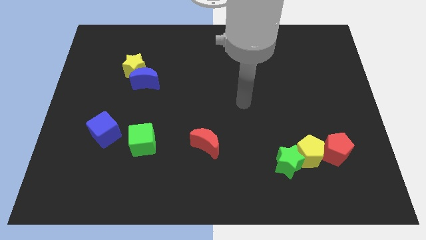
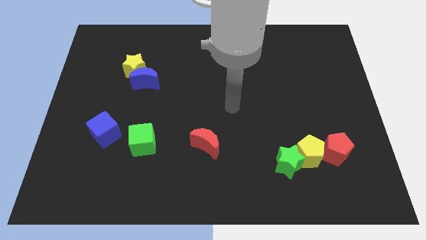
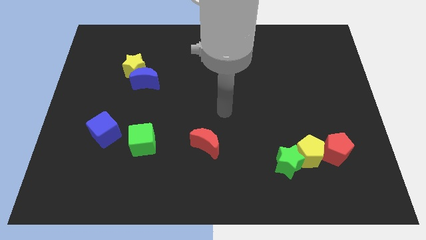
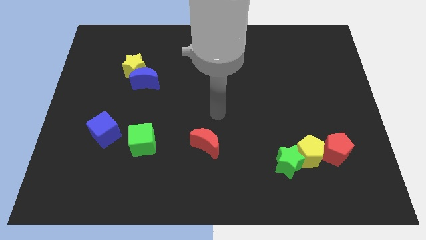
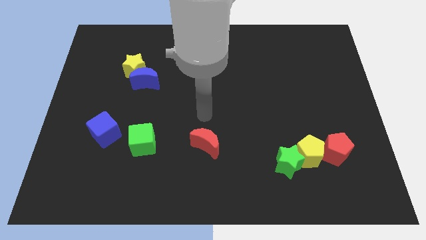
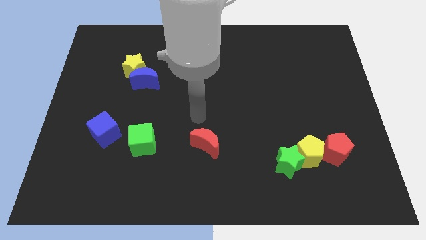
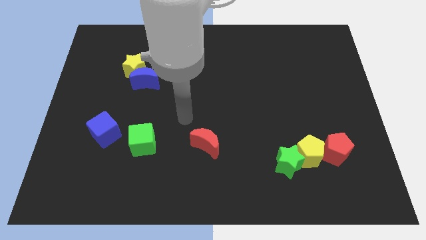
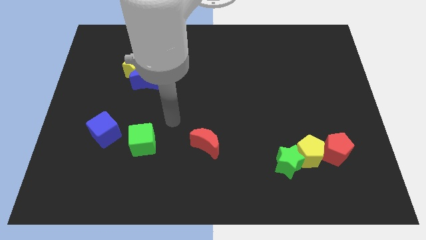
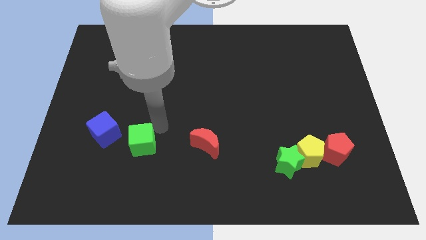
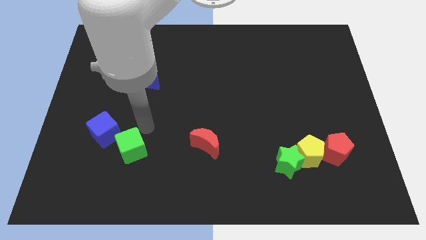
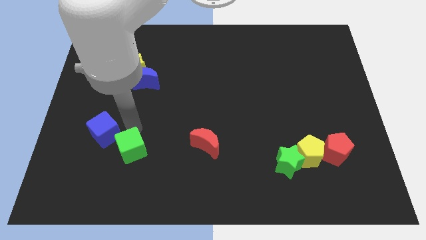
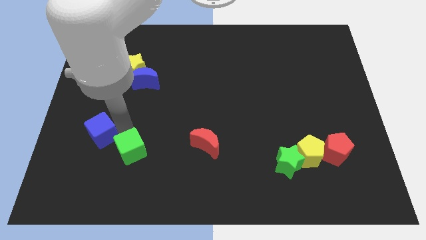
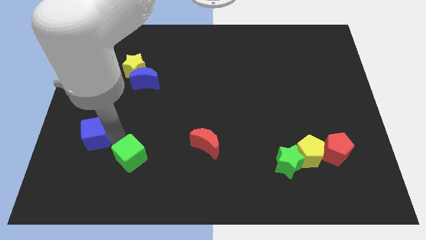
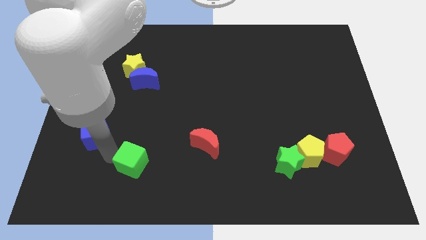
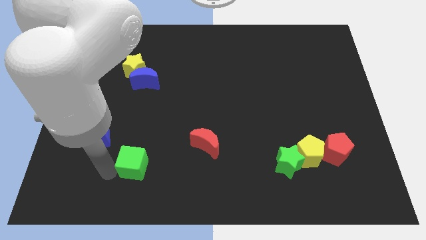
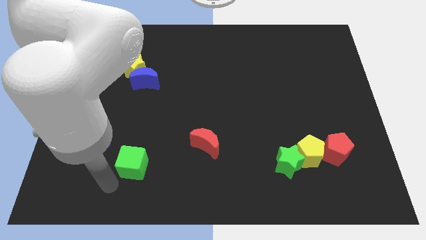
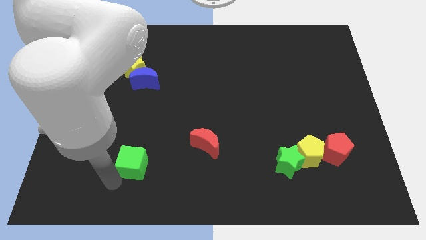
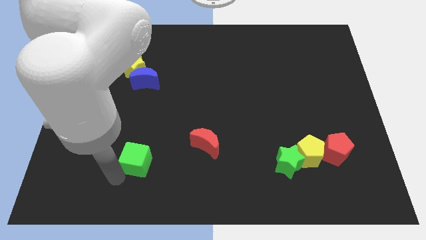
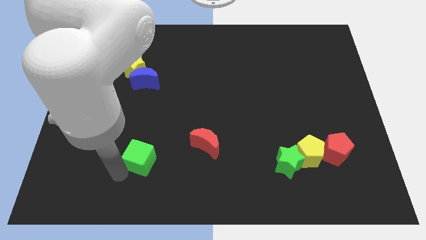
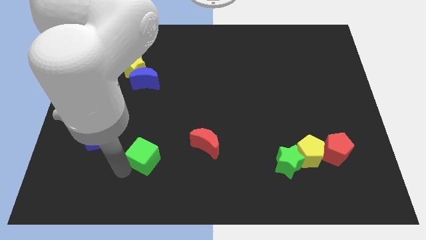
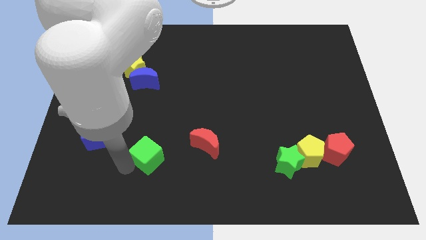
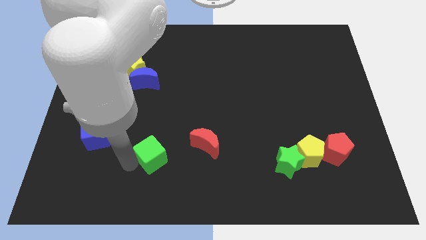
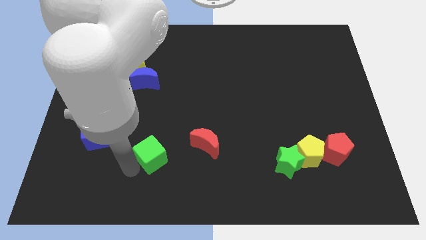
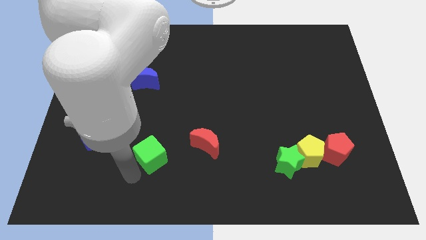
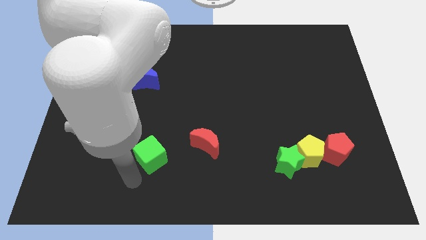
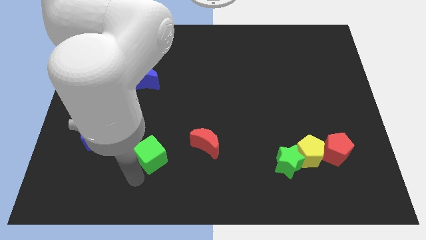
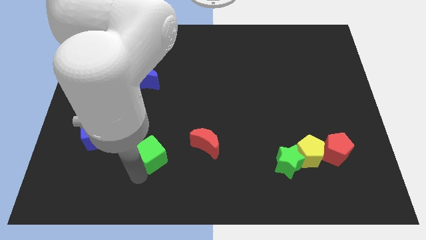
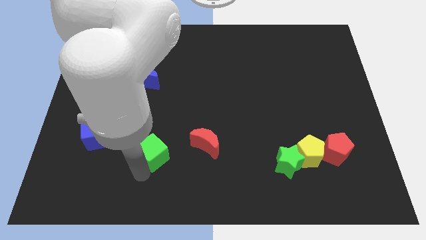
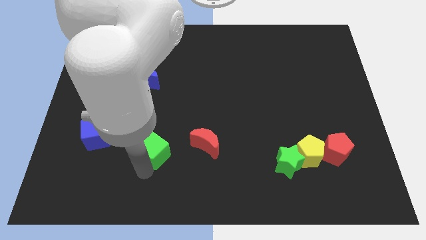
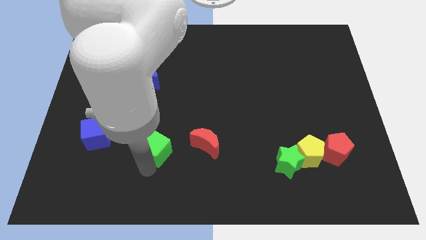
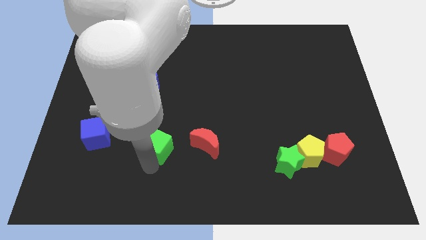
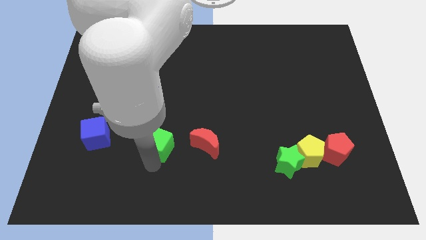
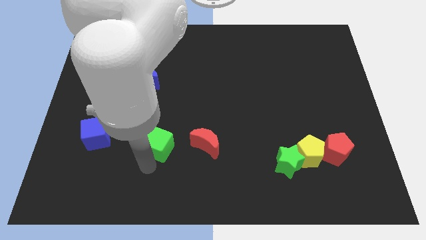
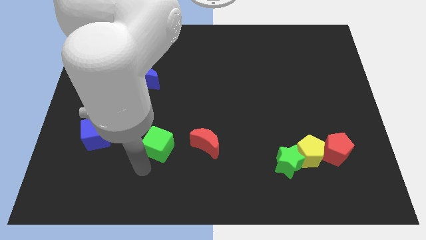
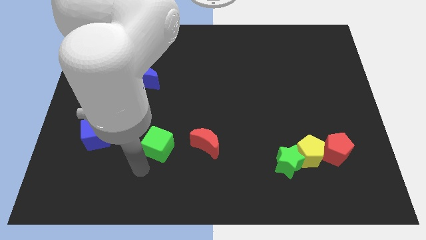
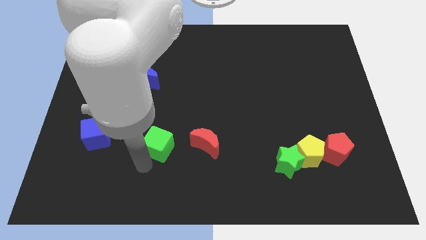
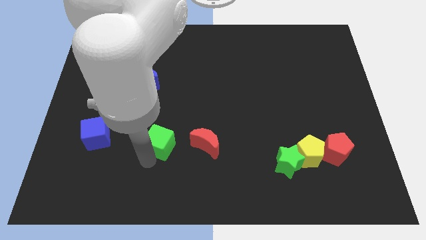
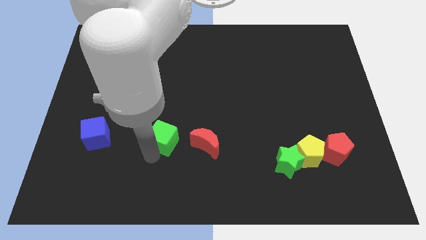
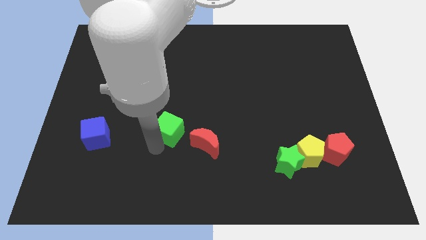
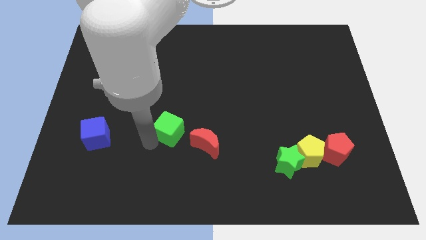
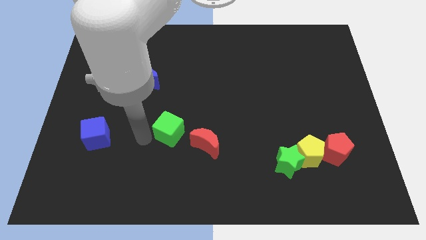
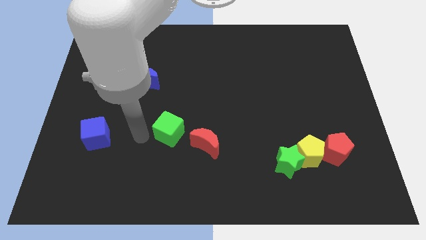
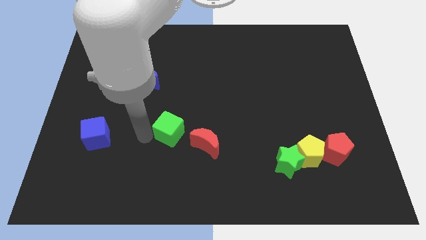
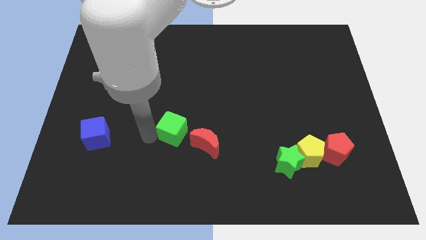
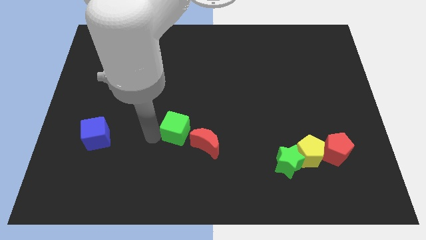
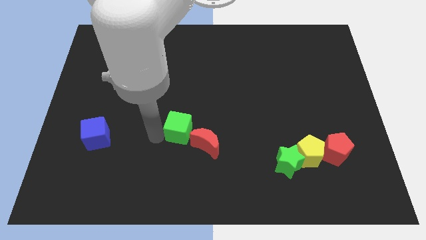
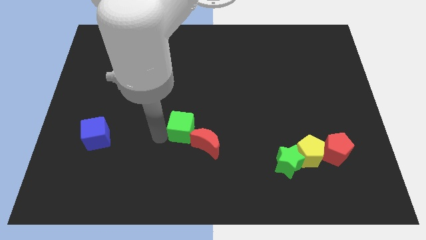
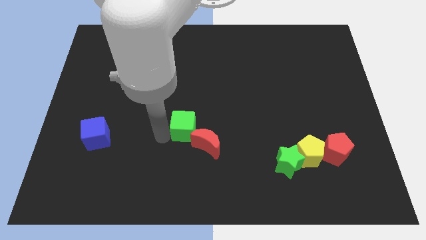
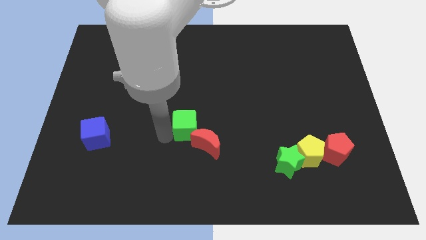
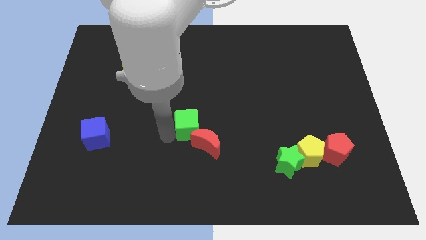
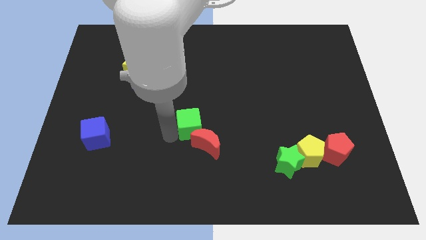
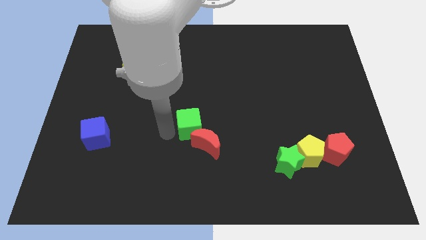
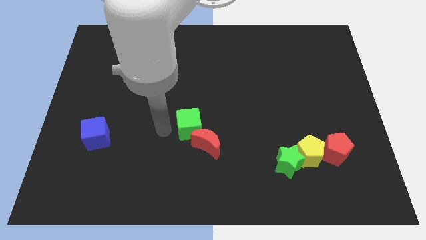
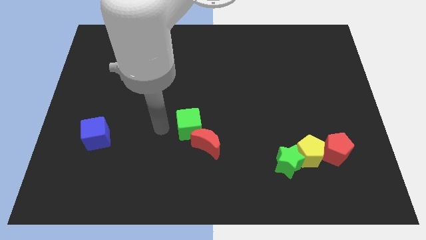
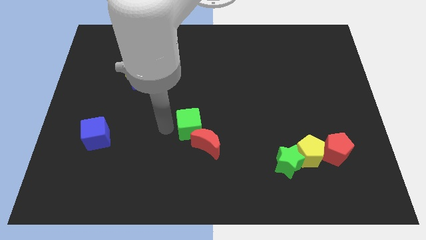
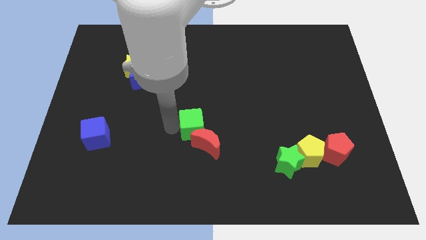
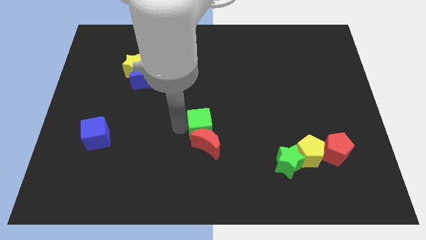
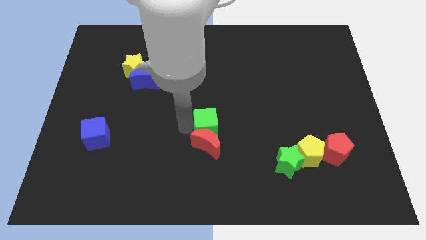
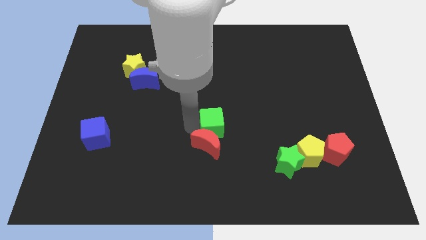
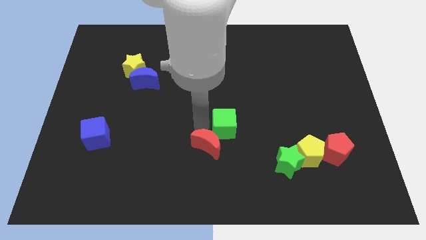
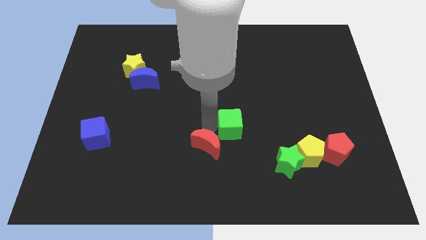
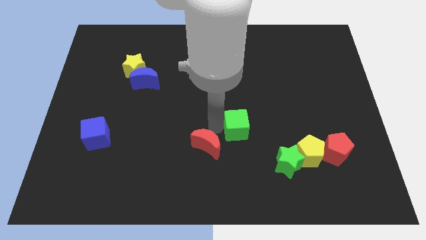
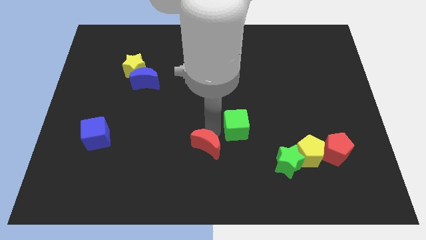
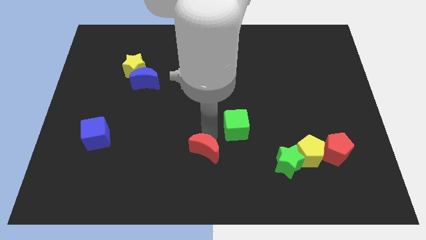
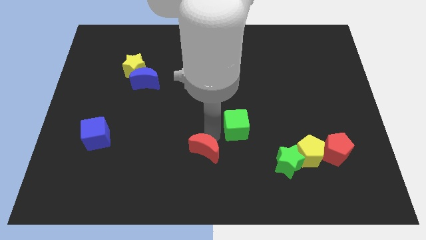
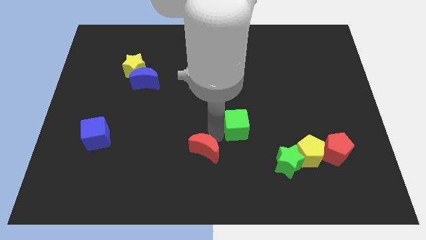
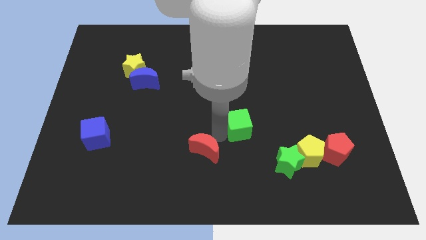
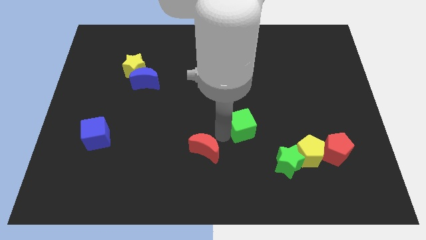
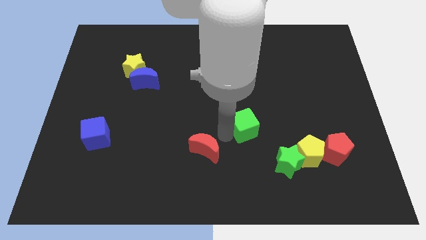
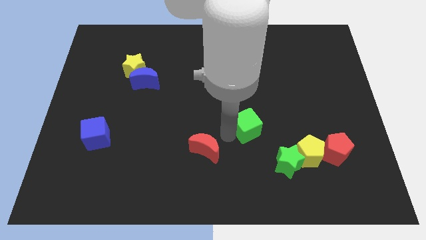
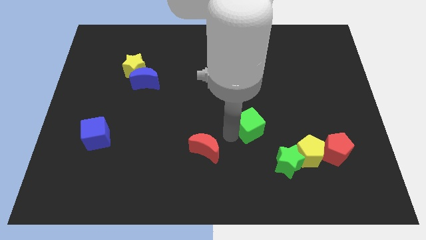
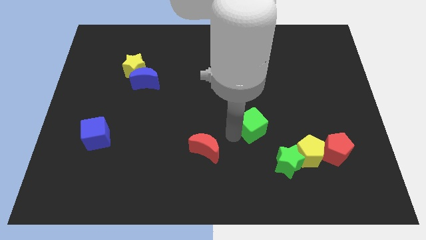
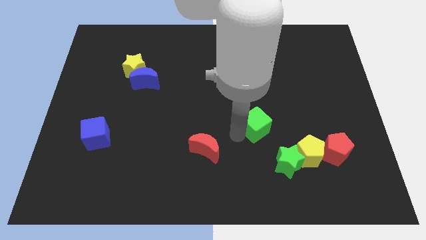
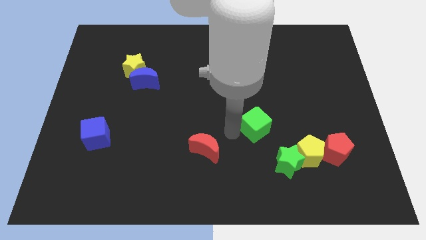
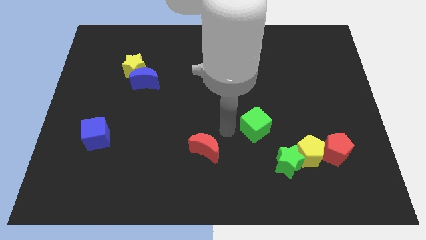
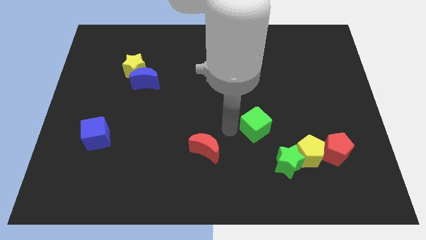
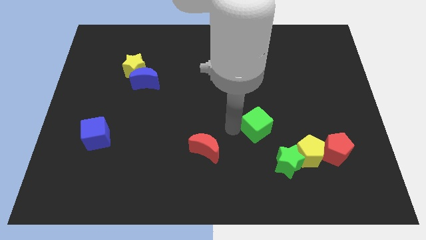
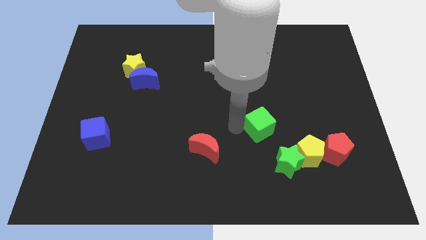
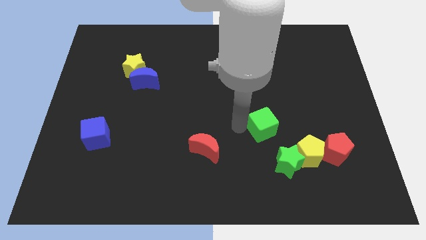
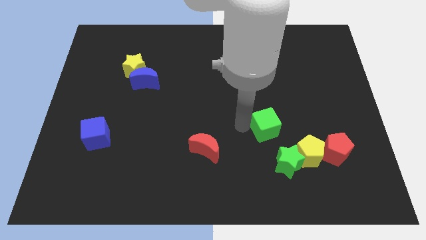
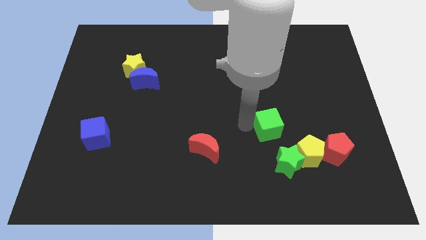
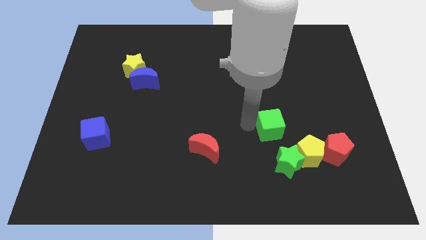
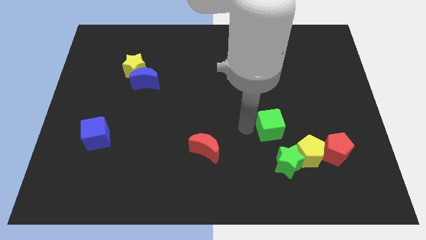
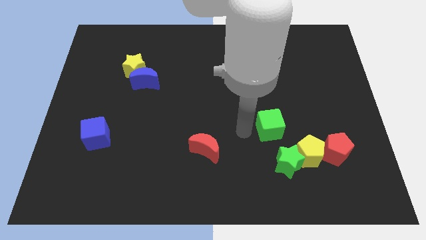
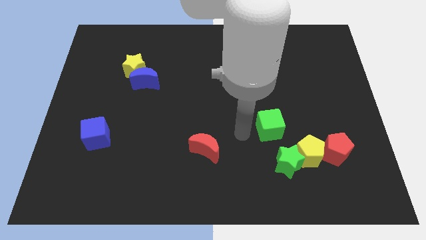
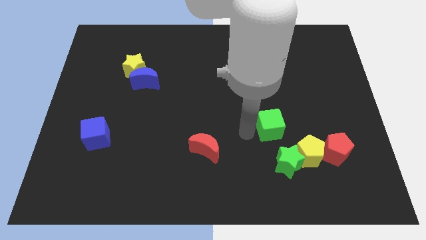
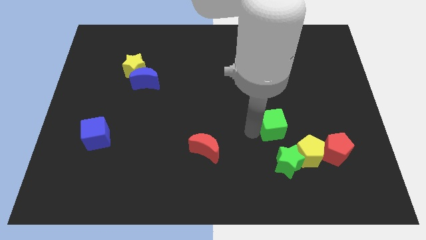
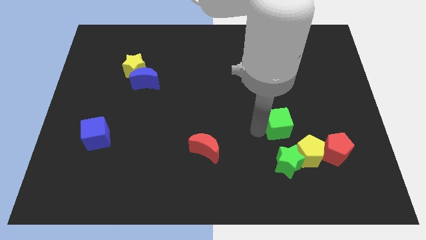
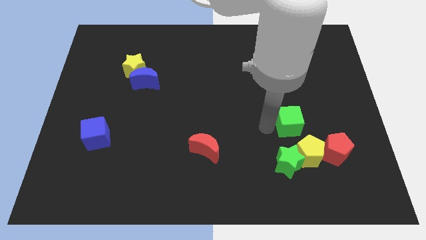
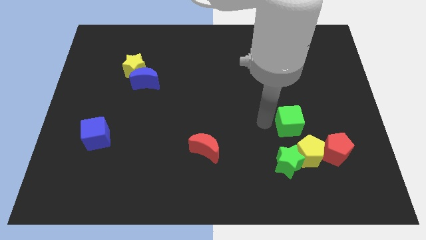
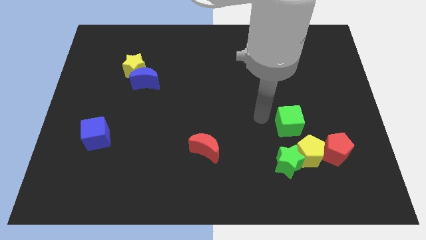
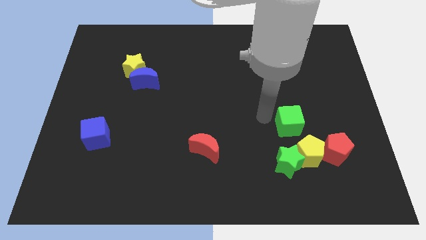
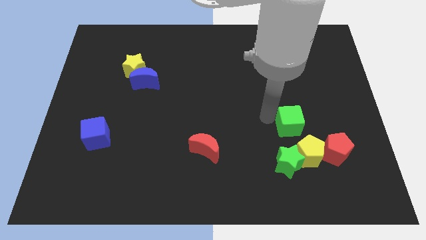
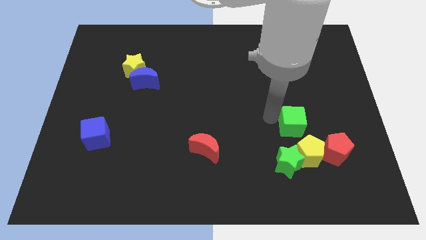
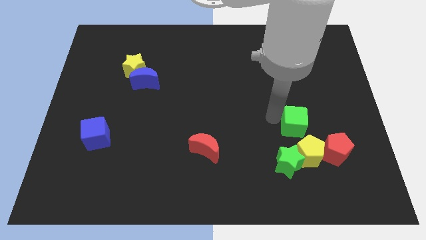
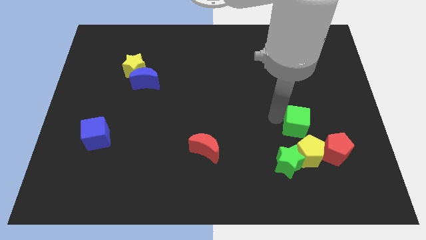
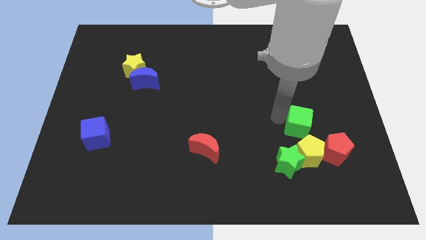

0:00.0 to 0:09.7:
slide the green cube to the top right of the green star
